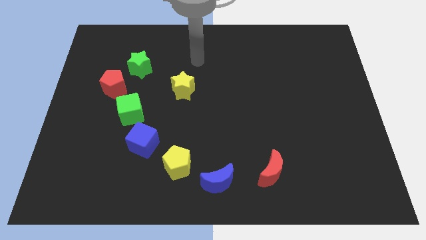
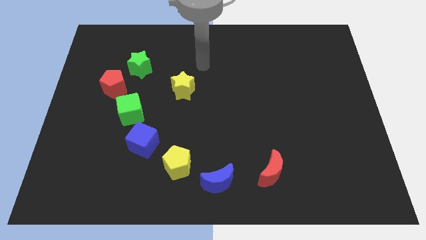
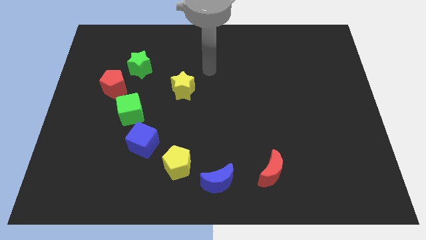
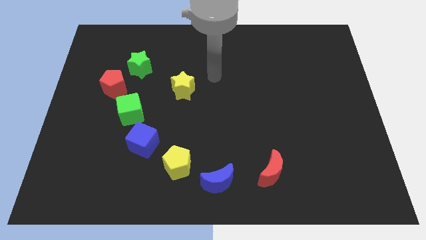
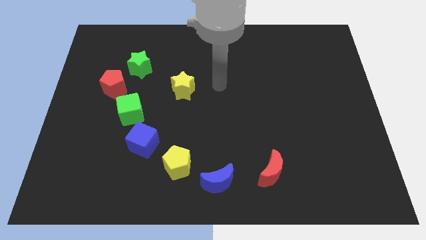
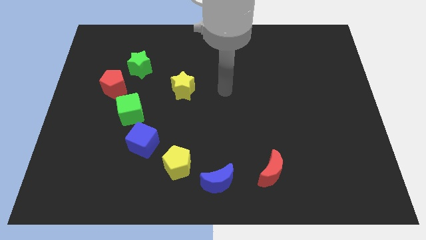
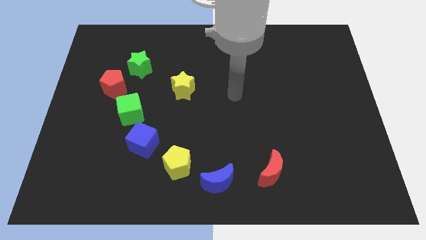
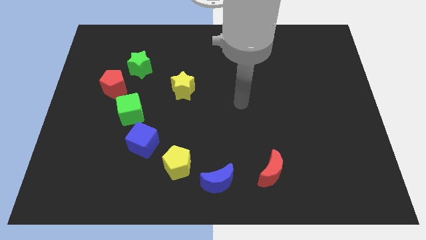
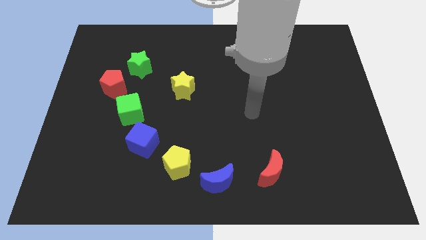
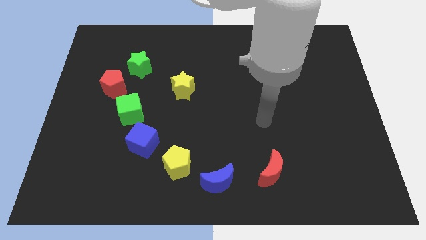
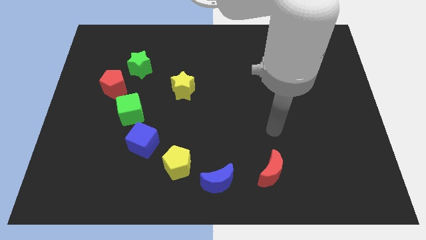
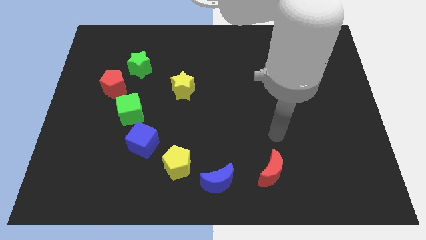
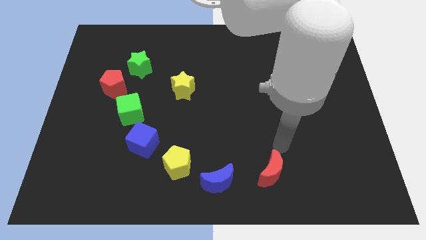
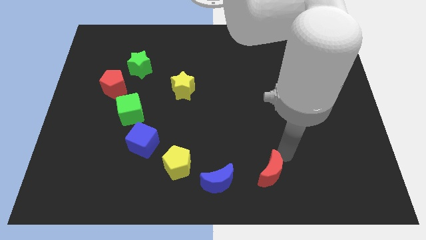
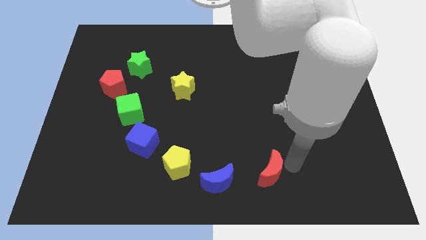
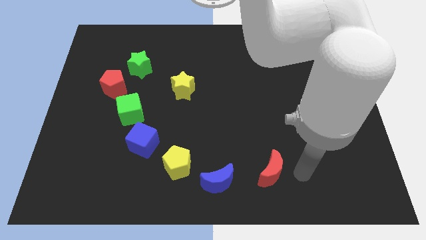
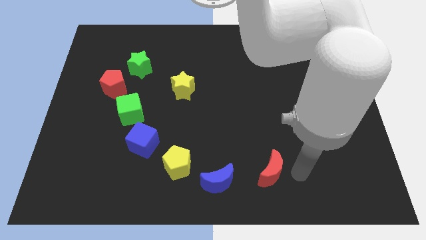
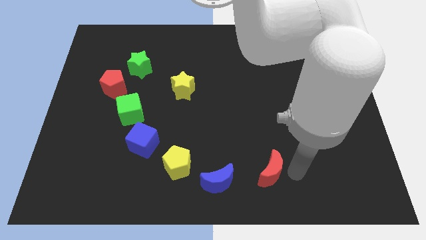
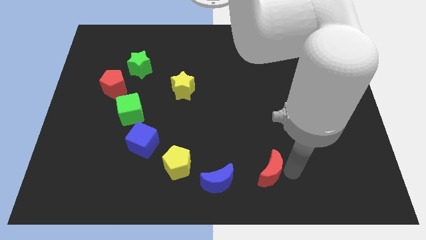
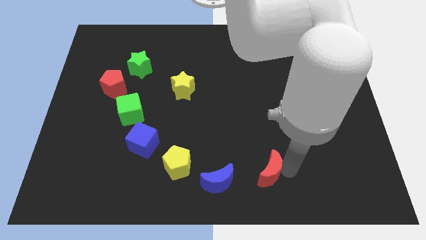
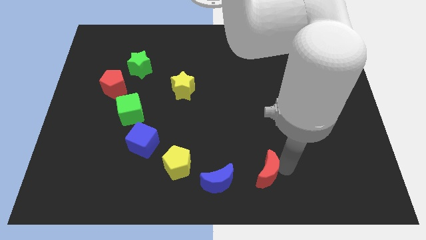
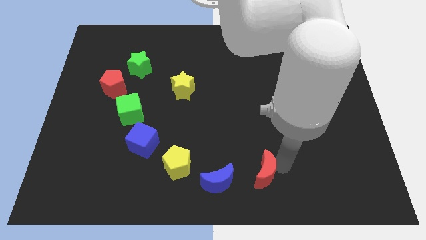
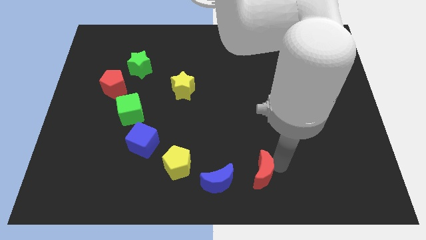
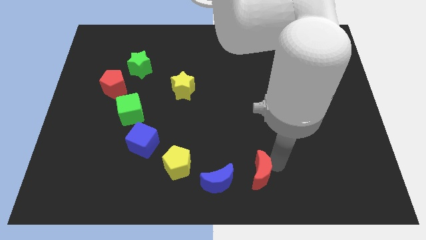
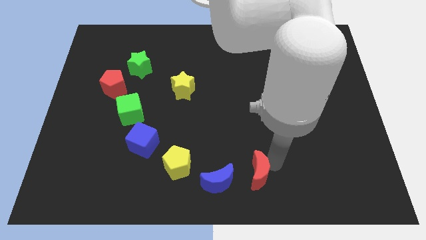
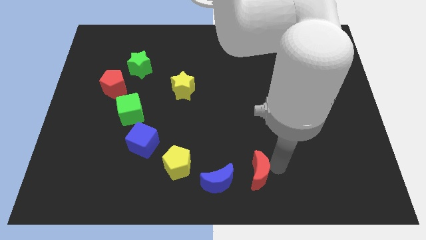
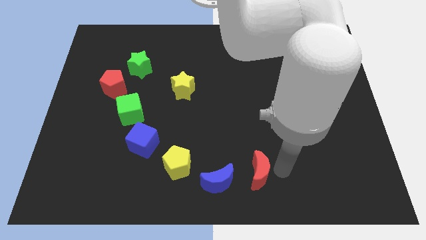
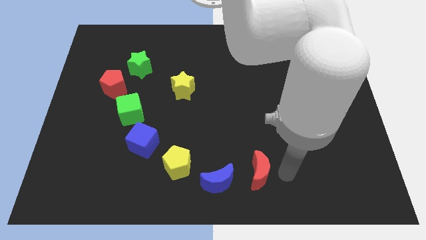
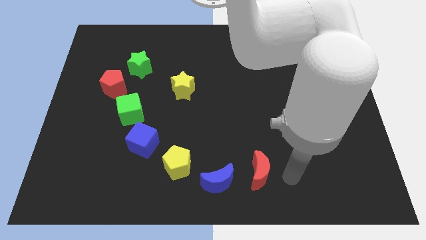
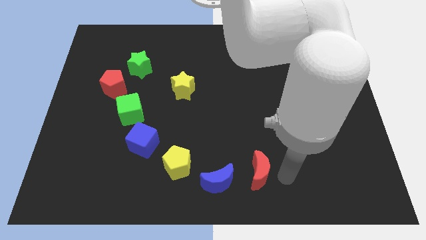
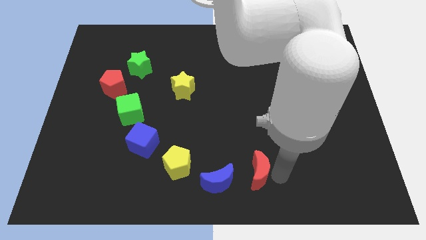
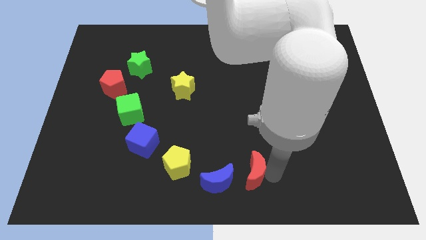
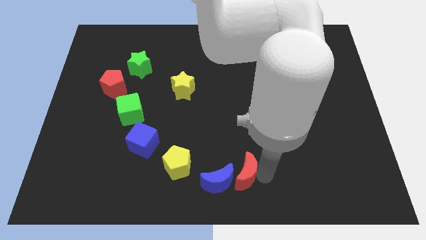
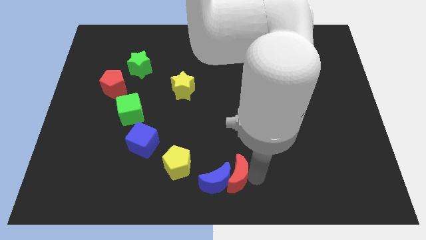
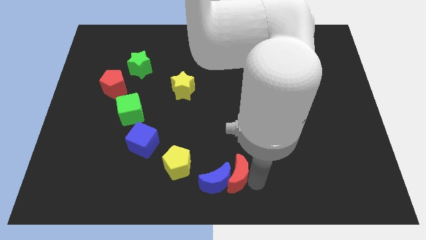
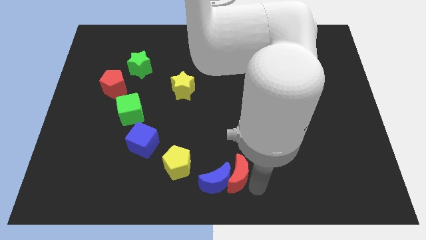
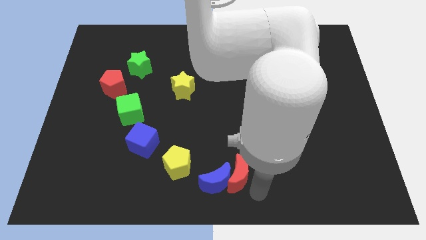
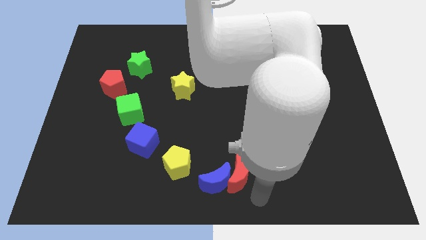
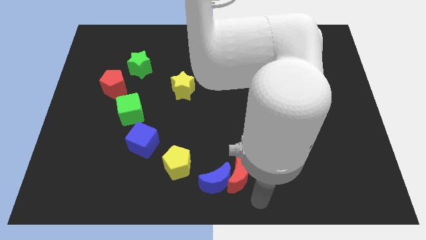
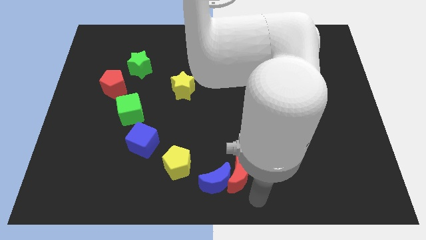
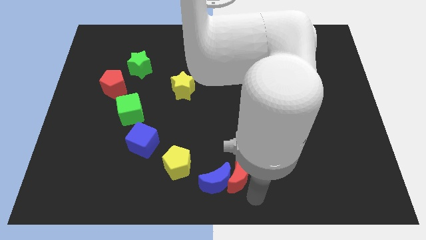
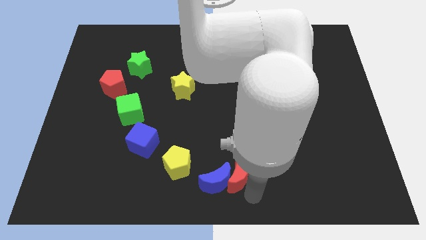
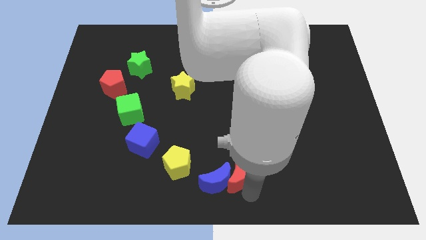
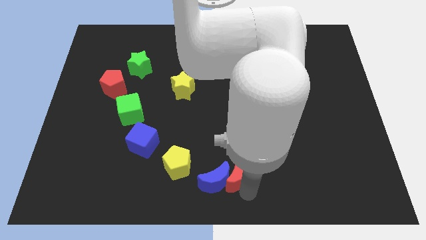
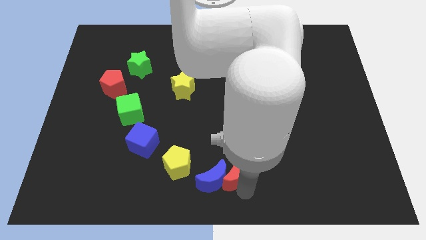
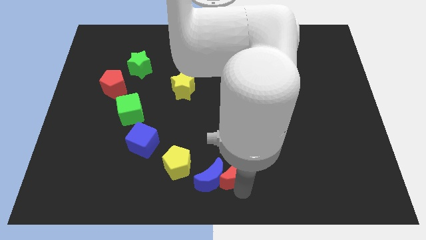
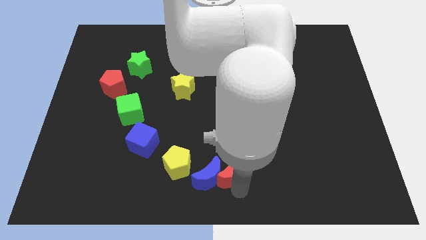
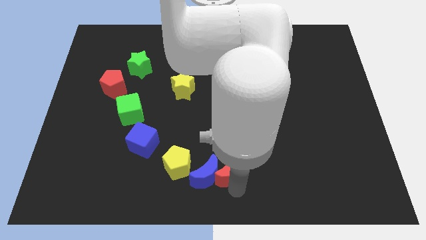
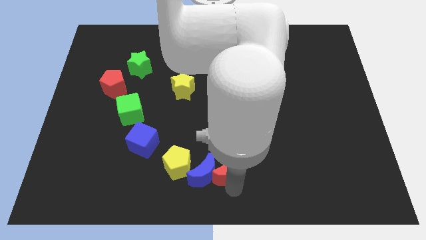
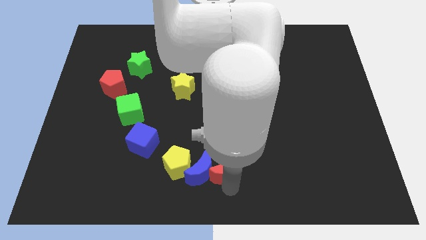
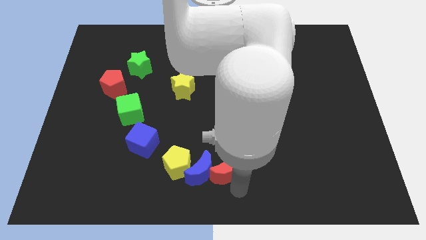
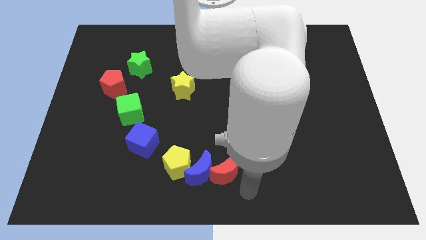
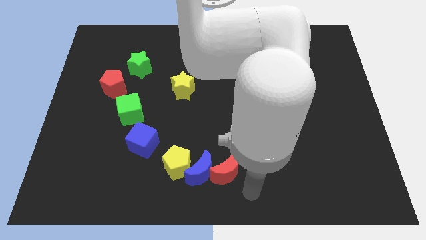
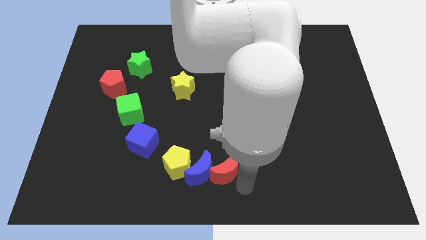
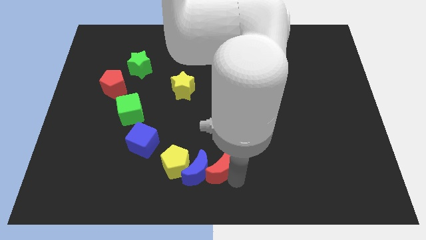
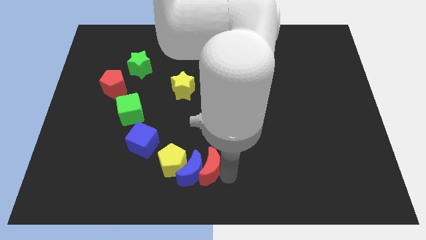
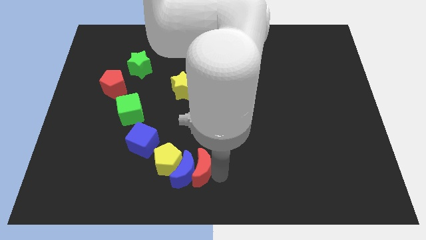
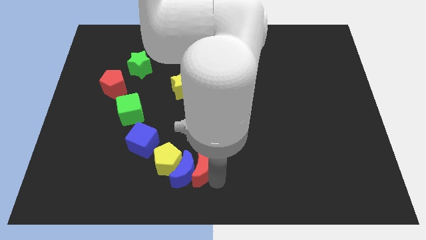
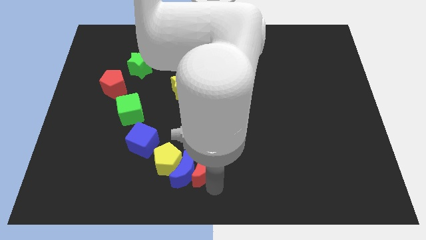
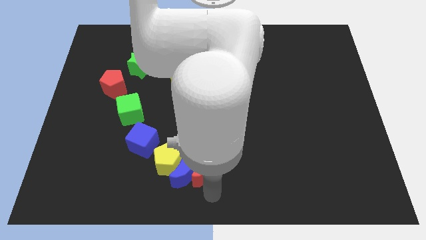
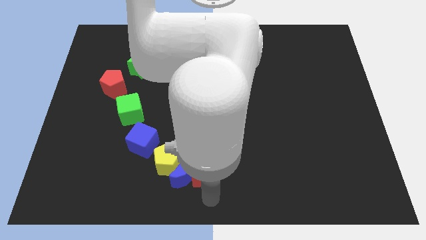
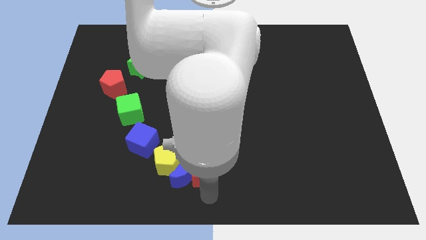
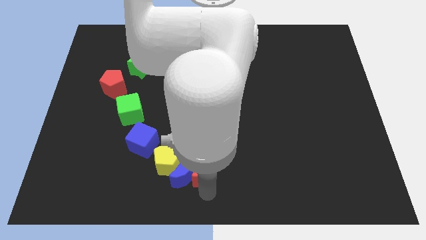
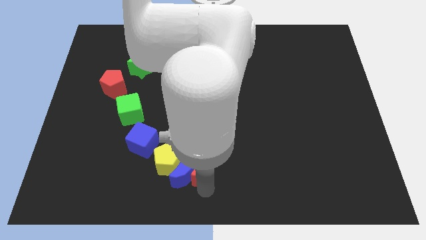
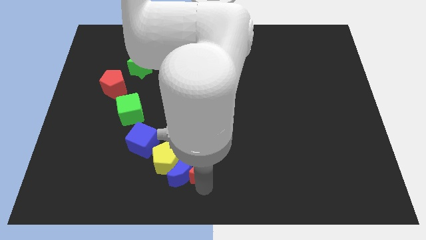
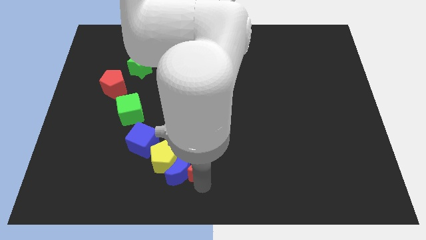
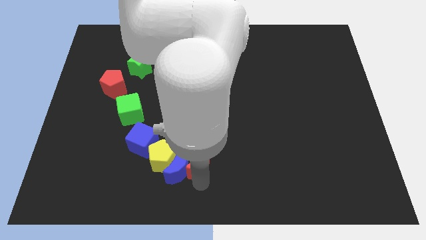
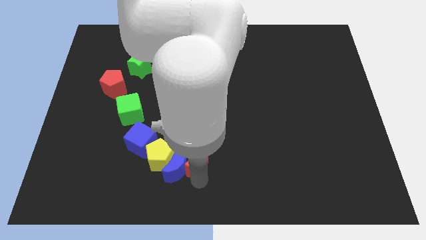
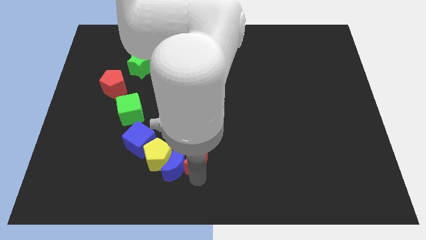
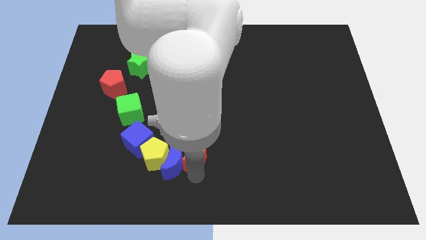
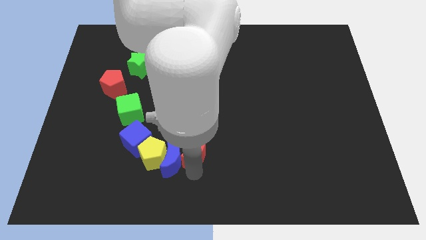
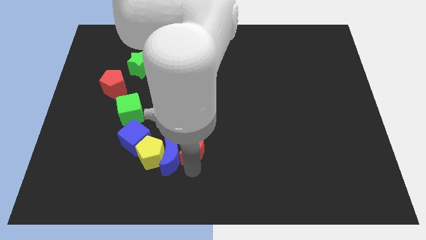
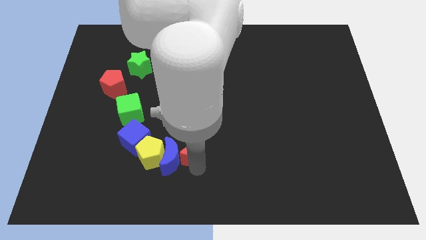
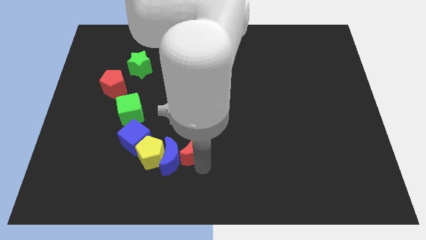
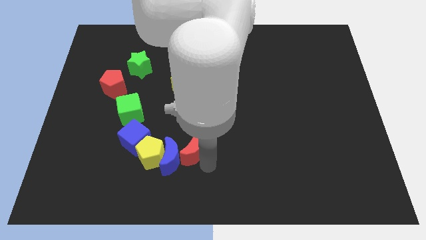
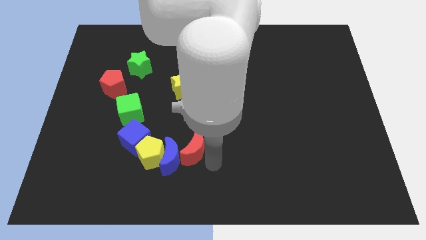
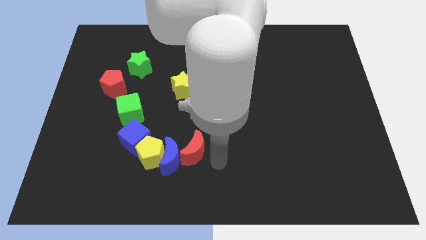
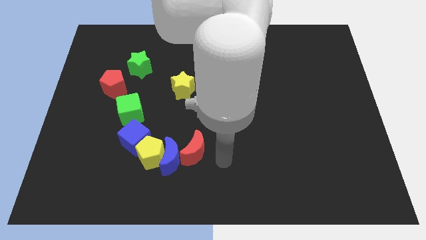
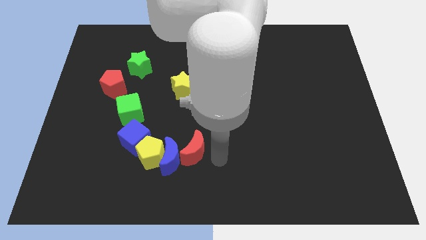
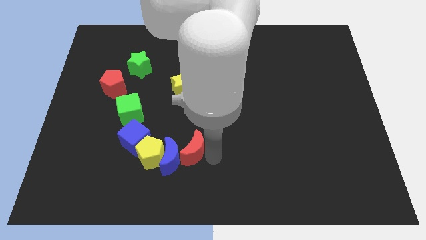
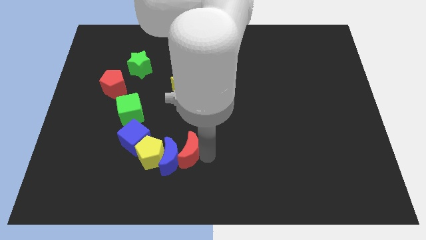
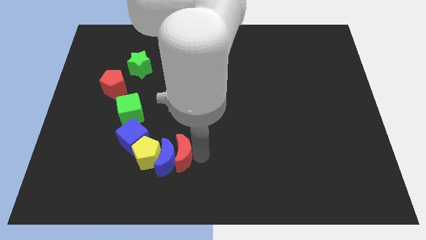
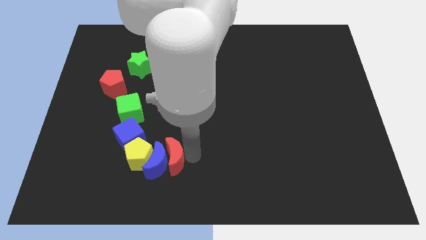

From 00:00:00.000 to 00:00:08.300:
push the red moon left
